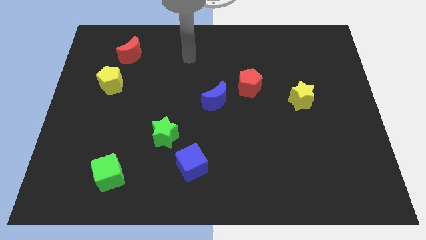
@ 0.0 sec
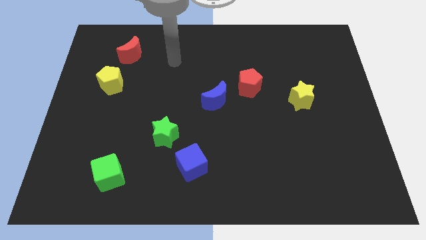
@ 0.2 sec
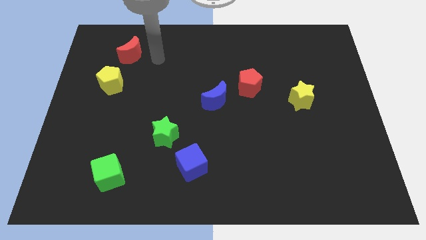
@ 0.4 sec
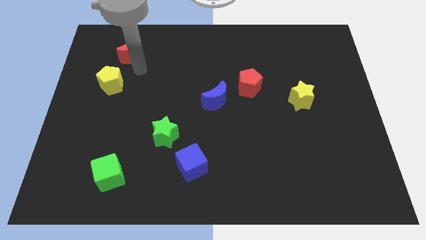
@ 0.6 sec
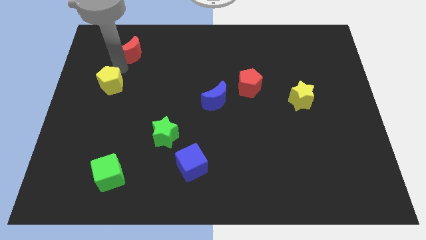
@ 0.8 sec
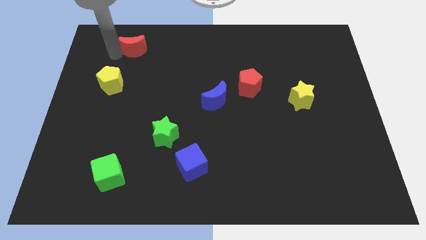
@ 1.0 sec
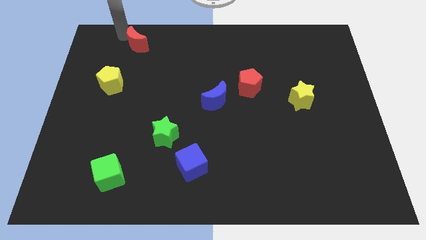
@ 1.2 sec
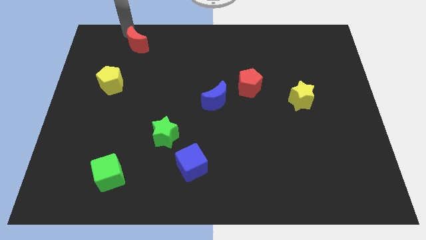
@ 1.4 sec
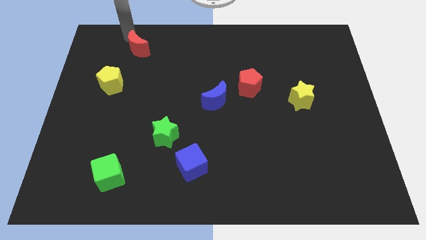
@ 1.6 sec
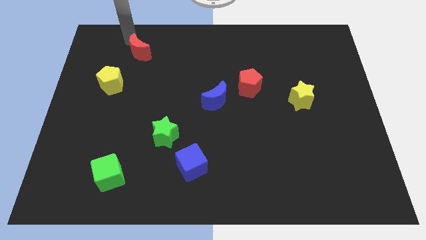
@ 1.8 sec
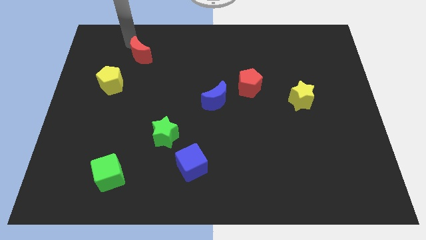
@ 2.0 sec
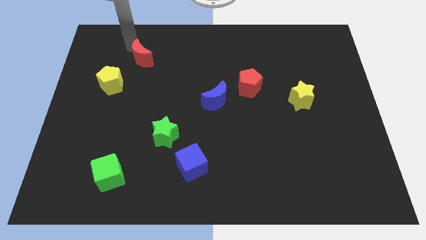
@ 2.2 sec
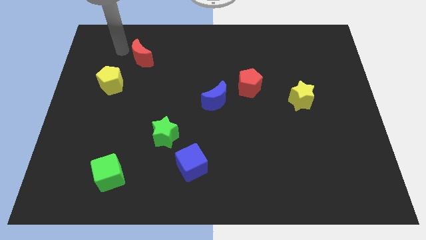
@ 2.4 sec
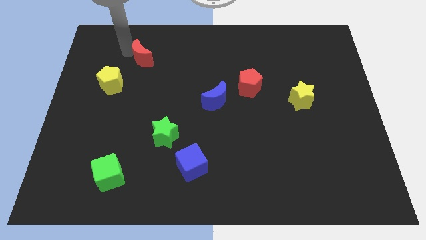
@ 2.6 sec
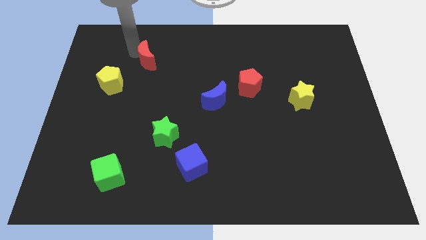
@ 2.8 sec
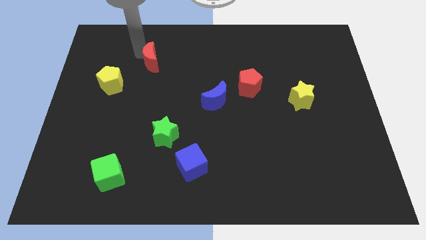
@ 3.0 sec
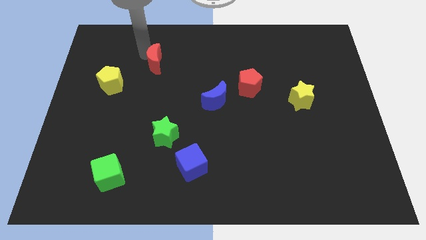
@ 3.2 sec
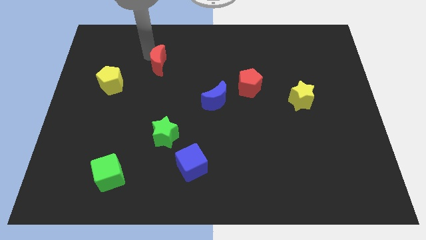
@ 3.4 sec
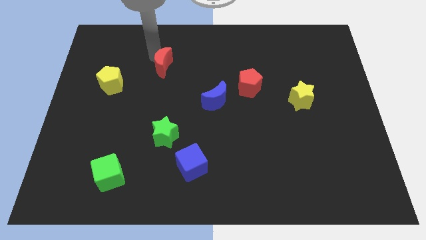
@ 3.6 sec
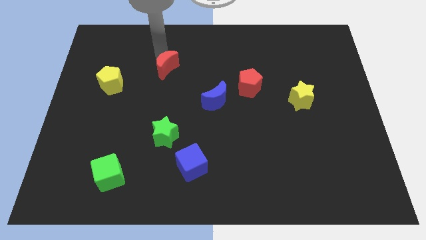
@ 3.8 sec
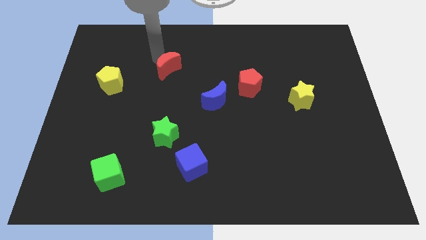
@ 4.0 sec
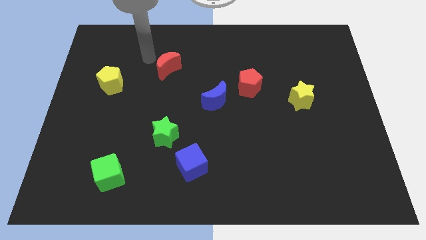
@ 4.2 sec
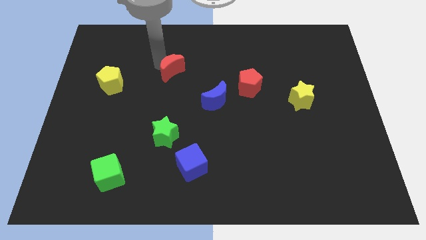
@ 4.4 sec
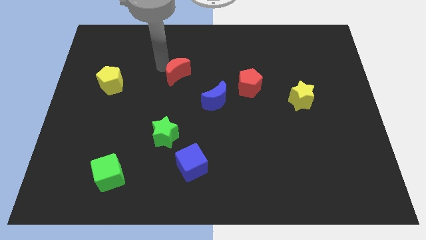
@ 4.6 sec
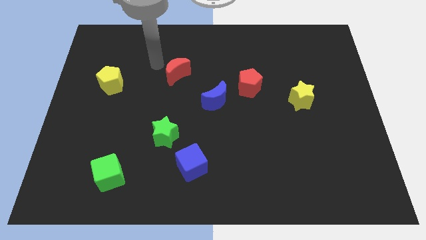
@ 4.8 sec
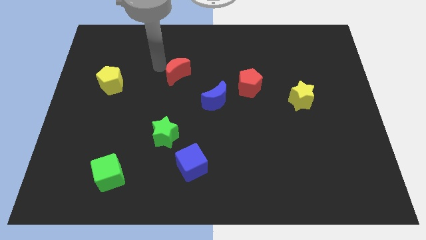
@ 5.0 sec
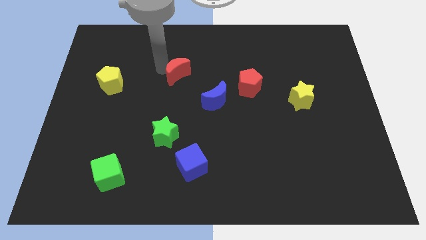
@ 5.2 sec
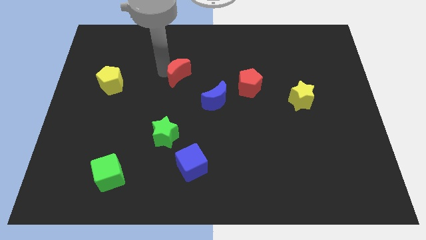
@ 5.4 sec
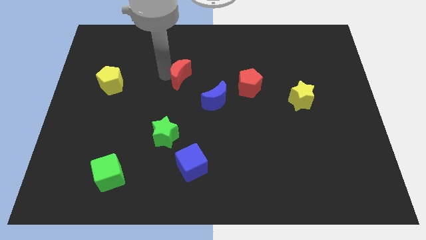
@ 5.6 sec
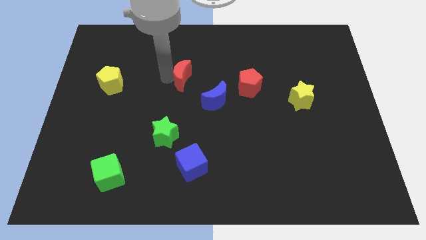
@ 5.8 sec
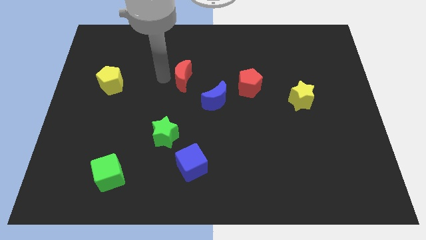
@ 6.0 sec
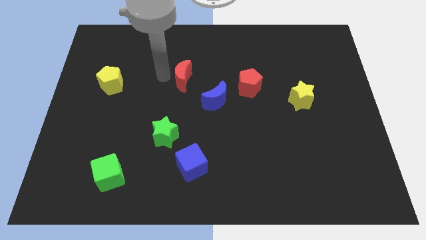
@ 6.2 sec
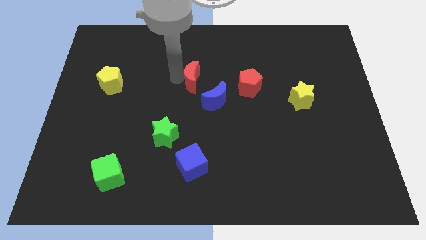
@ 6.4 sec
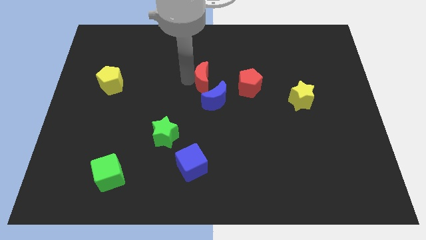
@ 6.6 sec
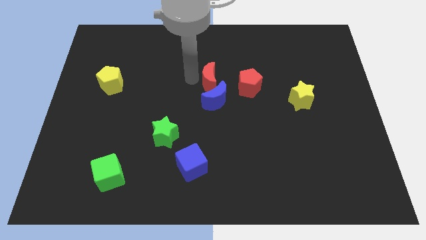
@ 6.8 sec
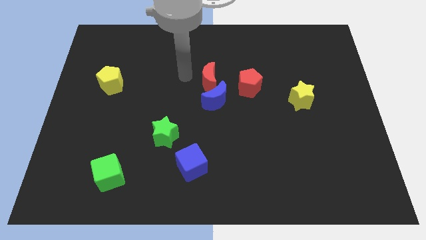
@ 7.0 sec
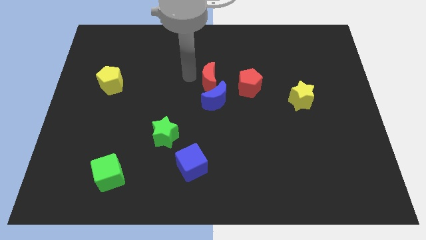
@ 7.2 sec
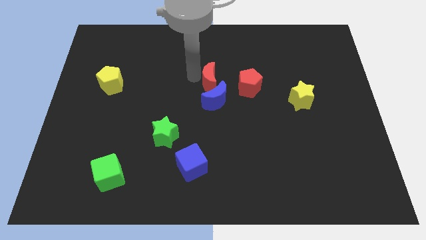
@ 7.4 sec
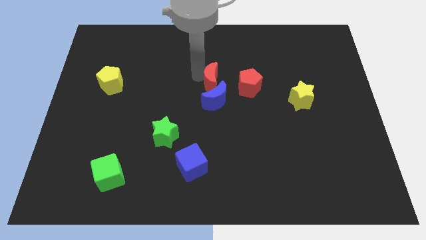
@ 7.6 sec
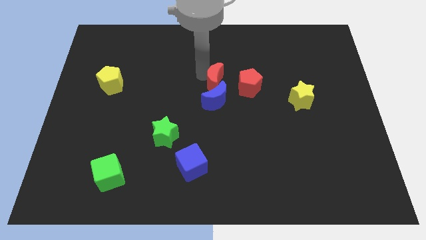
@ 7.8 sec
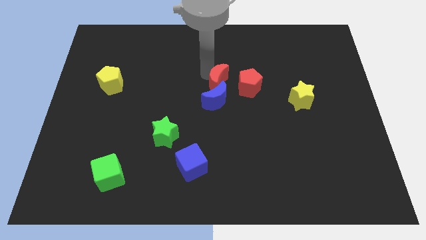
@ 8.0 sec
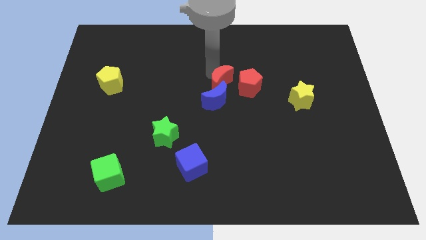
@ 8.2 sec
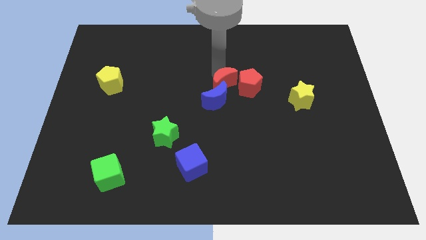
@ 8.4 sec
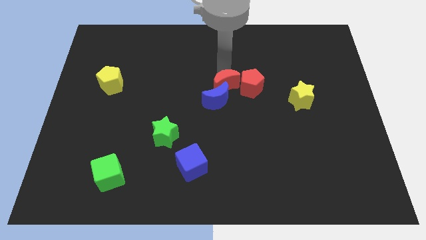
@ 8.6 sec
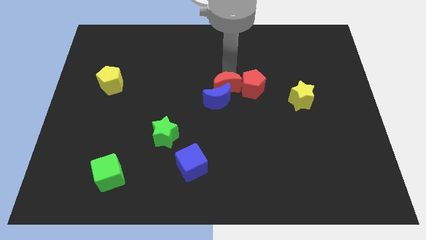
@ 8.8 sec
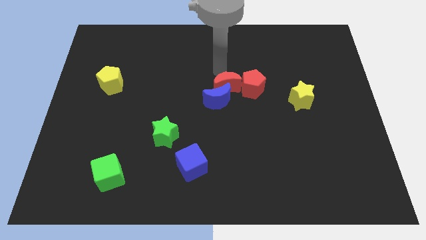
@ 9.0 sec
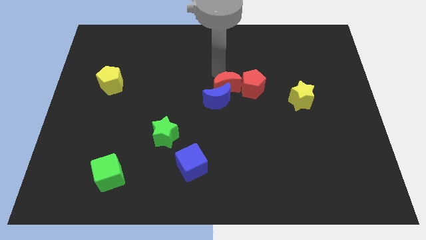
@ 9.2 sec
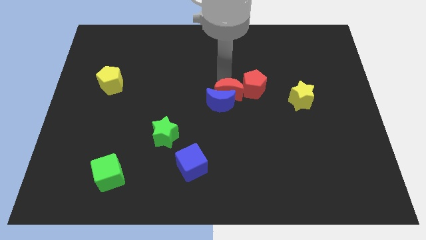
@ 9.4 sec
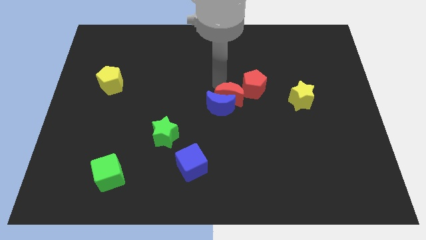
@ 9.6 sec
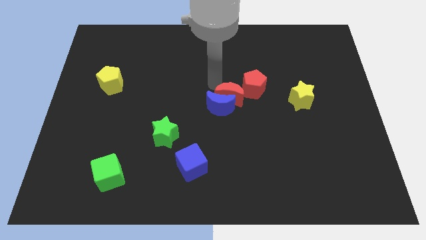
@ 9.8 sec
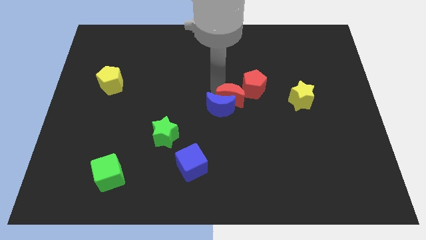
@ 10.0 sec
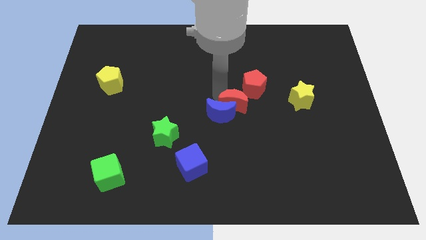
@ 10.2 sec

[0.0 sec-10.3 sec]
move the red moon to the bottom of the red pentagon

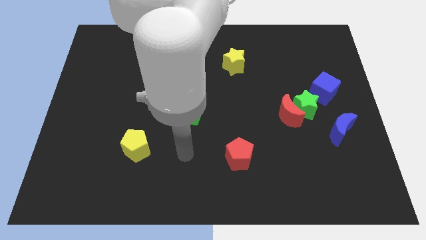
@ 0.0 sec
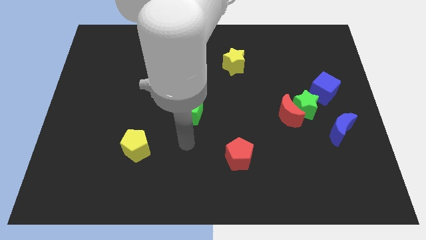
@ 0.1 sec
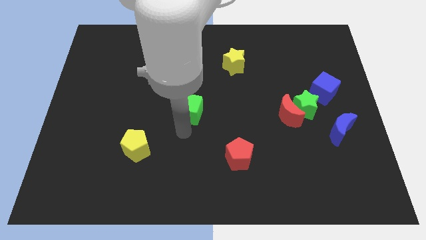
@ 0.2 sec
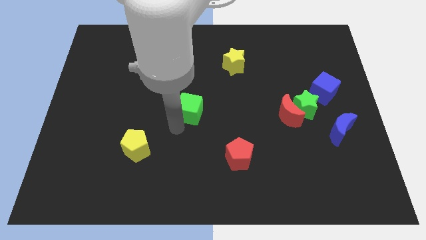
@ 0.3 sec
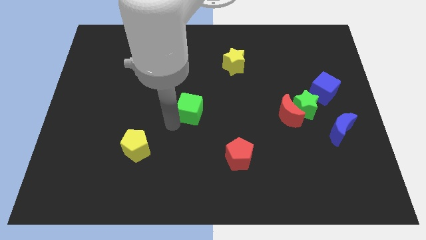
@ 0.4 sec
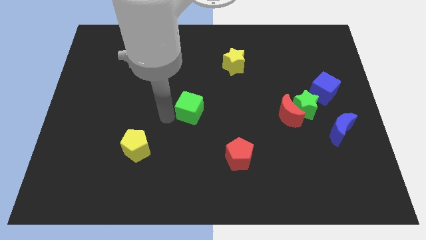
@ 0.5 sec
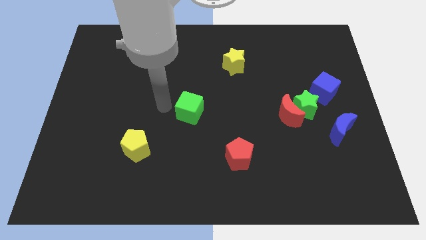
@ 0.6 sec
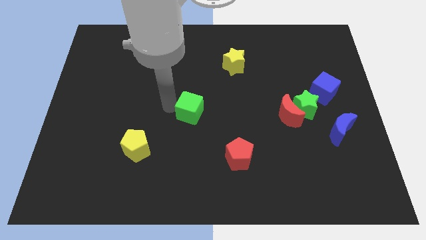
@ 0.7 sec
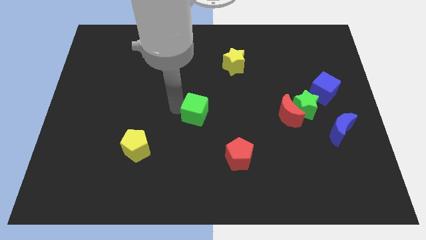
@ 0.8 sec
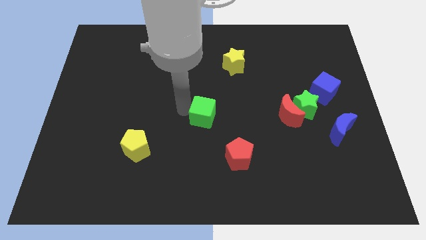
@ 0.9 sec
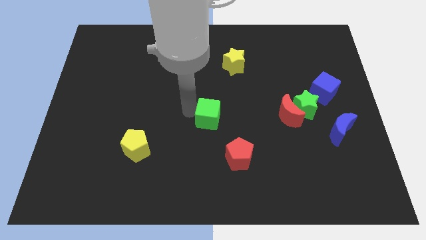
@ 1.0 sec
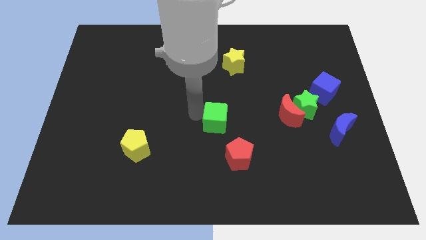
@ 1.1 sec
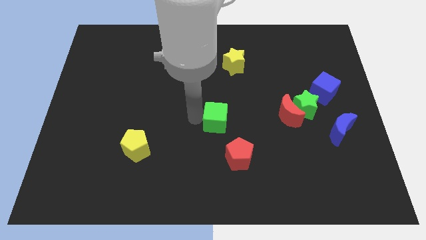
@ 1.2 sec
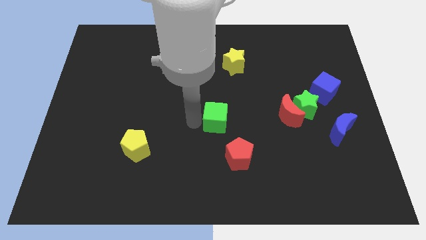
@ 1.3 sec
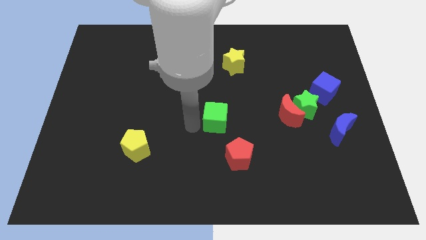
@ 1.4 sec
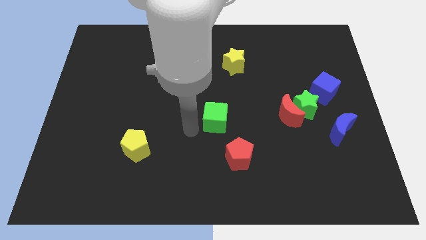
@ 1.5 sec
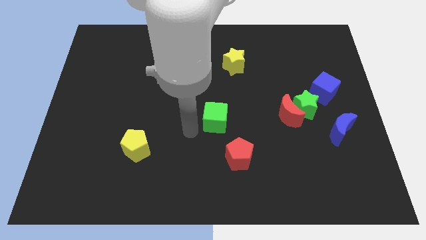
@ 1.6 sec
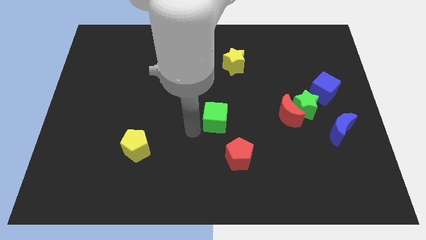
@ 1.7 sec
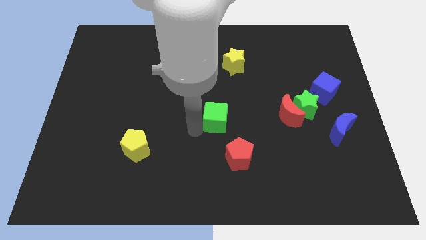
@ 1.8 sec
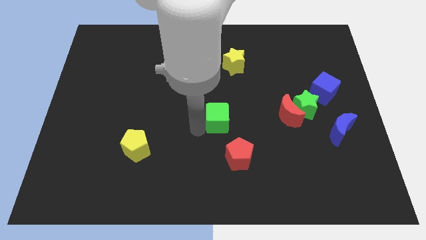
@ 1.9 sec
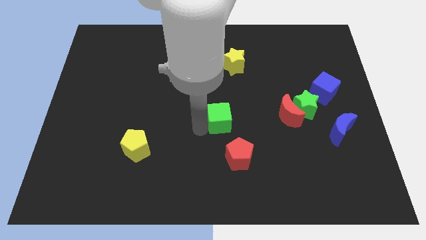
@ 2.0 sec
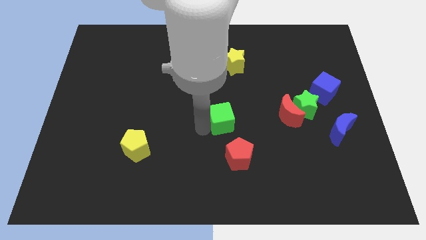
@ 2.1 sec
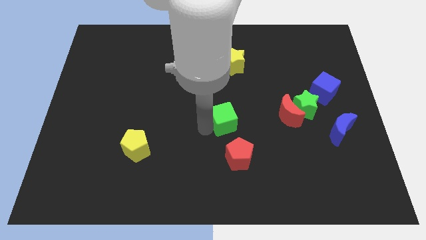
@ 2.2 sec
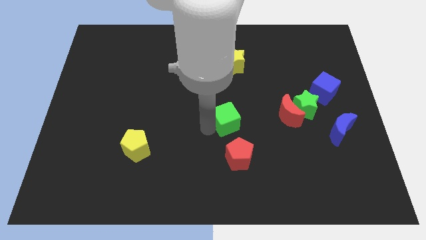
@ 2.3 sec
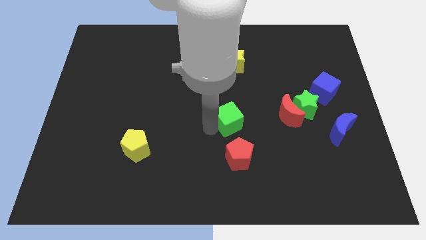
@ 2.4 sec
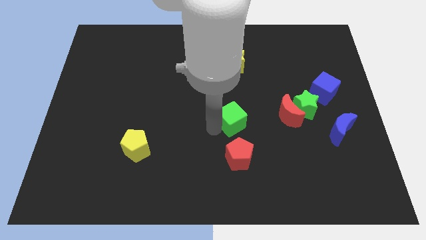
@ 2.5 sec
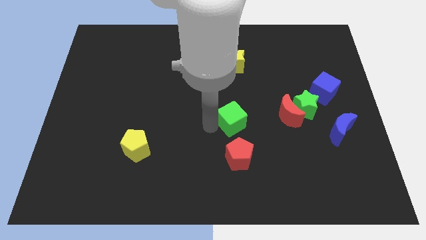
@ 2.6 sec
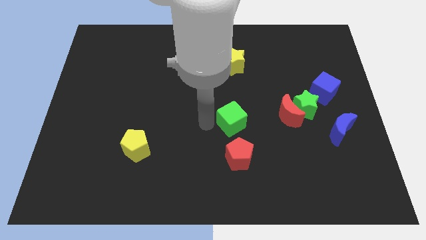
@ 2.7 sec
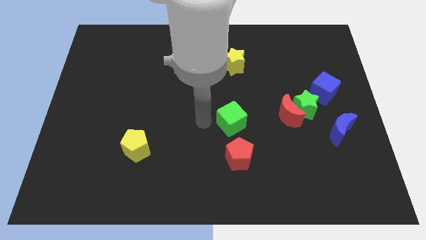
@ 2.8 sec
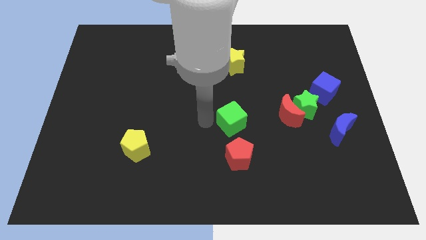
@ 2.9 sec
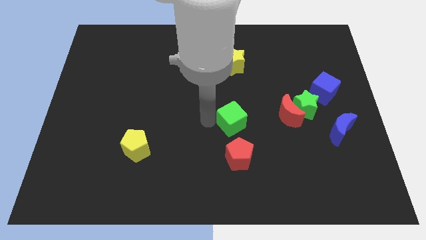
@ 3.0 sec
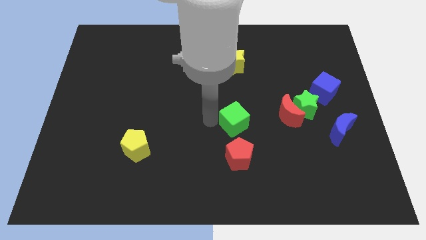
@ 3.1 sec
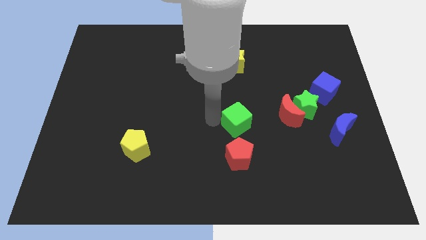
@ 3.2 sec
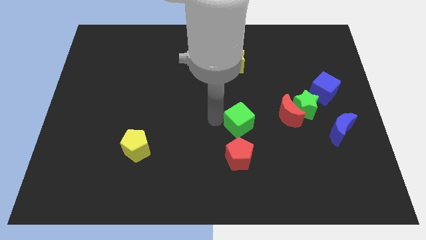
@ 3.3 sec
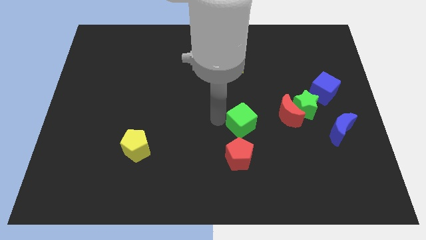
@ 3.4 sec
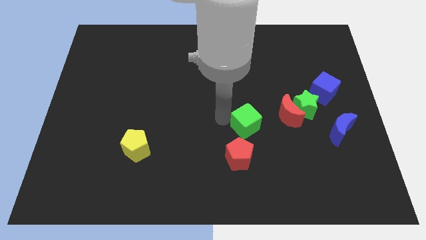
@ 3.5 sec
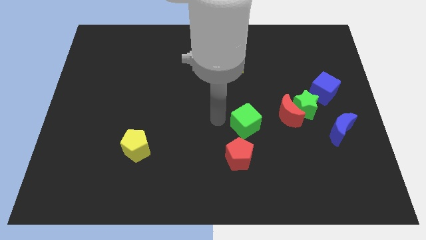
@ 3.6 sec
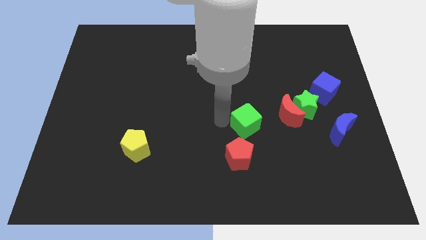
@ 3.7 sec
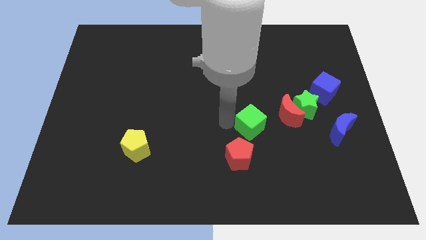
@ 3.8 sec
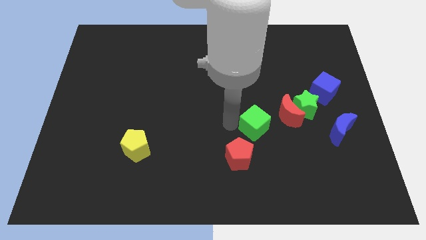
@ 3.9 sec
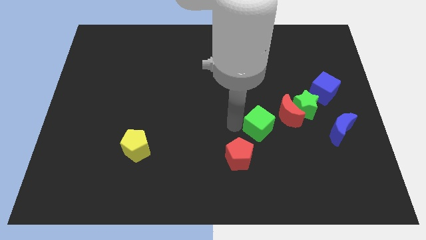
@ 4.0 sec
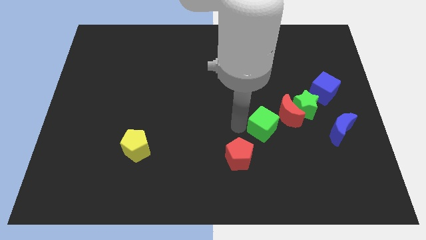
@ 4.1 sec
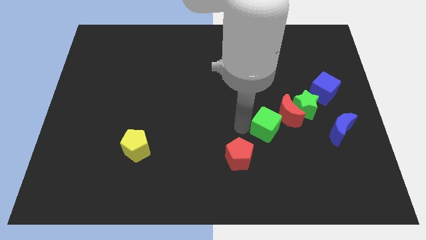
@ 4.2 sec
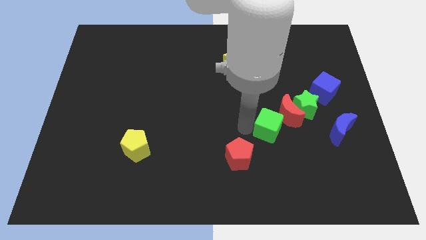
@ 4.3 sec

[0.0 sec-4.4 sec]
slide the green cube left of the blue moon
